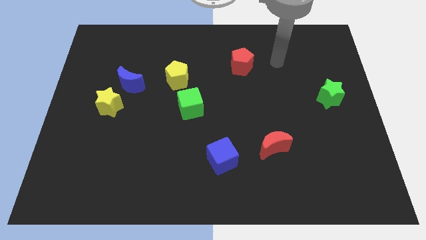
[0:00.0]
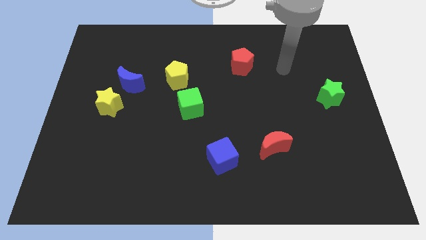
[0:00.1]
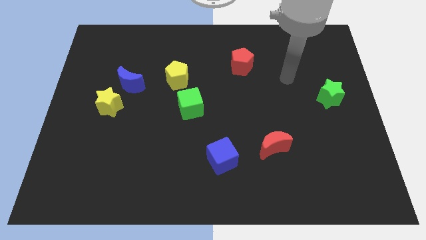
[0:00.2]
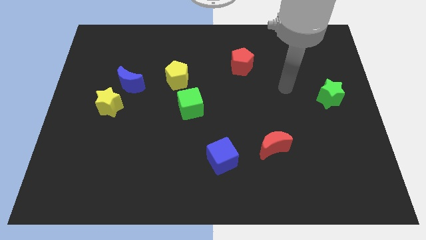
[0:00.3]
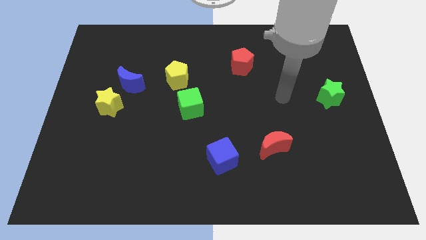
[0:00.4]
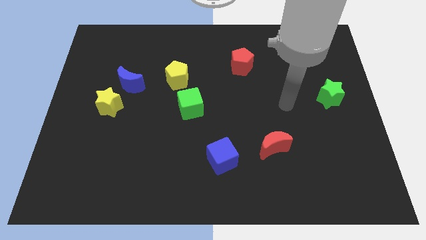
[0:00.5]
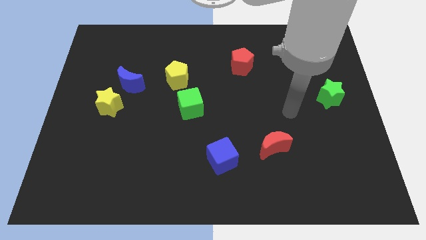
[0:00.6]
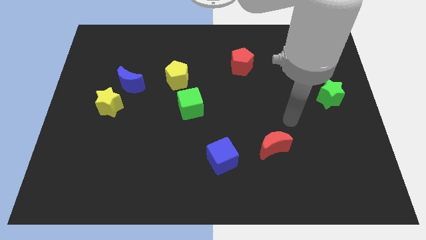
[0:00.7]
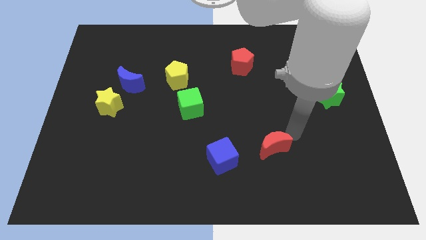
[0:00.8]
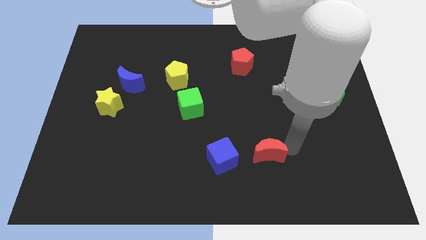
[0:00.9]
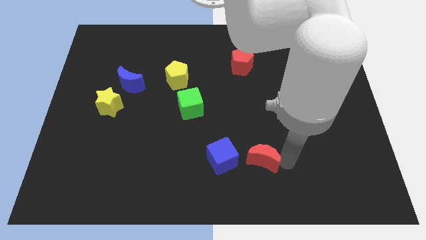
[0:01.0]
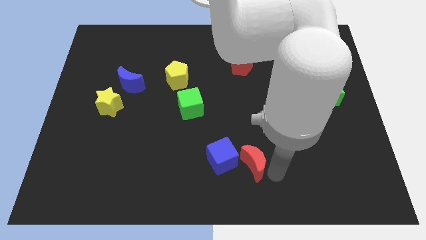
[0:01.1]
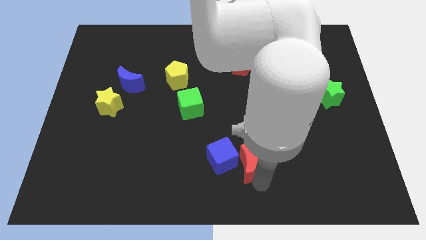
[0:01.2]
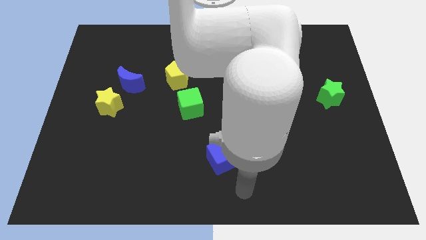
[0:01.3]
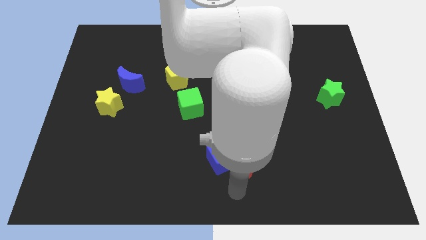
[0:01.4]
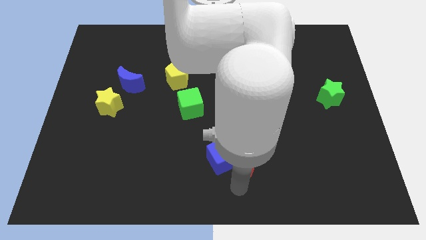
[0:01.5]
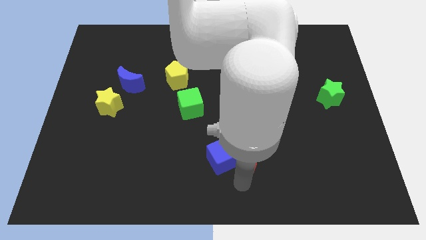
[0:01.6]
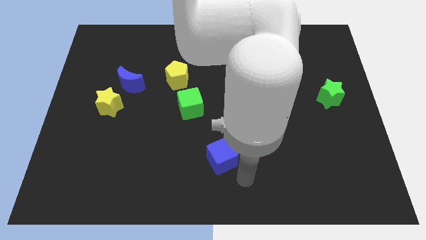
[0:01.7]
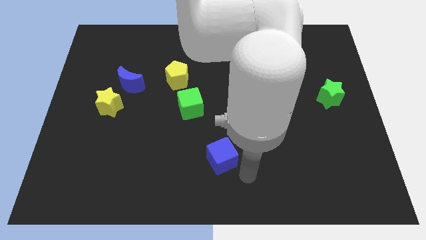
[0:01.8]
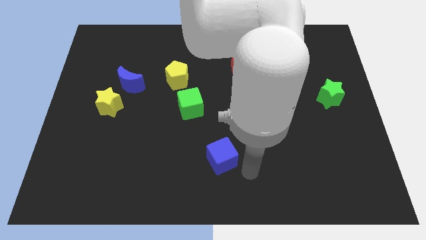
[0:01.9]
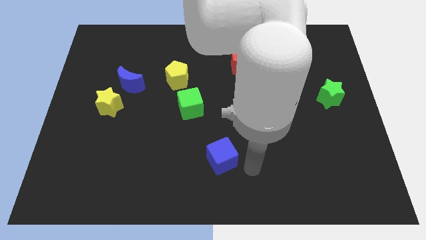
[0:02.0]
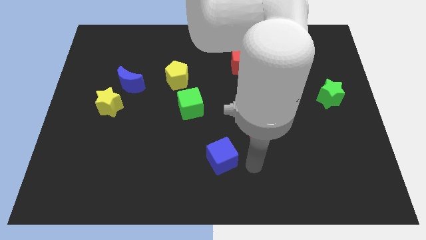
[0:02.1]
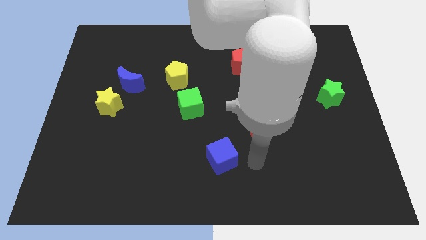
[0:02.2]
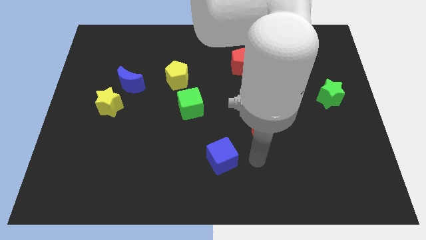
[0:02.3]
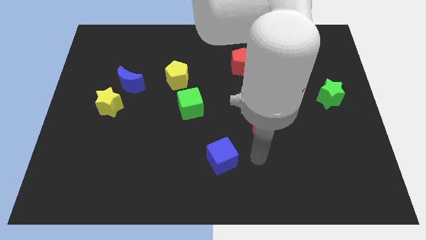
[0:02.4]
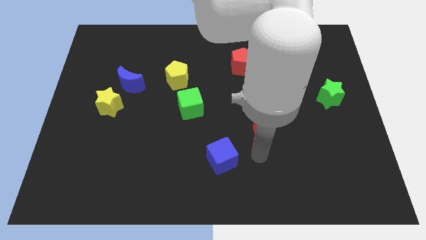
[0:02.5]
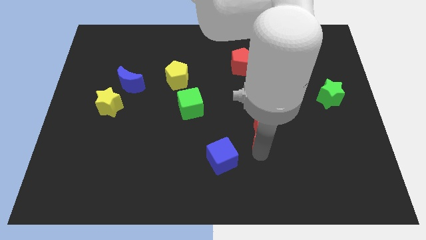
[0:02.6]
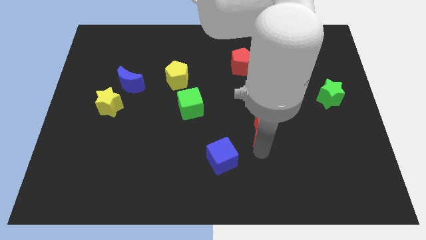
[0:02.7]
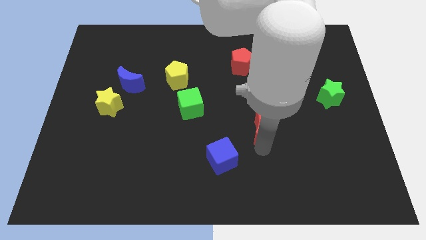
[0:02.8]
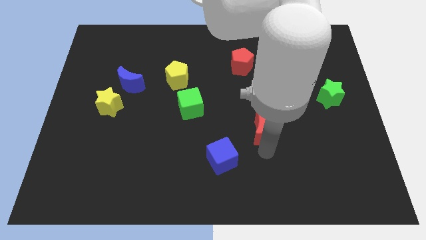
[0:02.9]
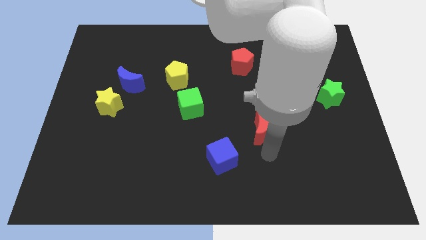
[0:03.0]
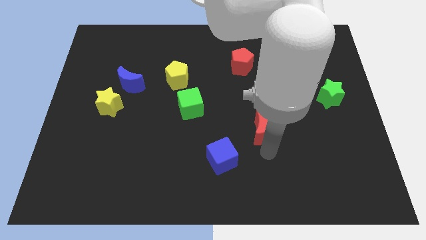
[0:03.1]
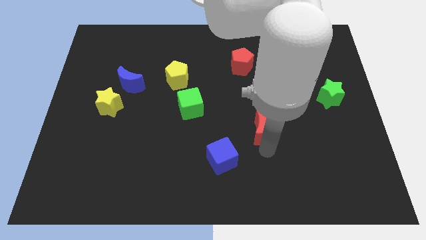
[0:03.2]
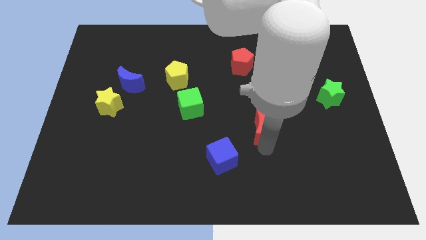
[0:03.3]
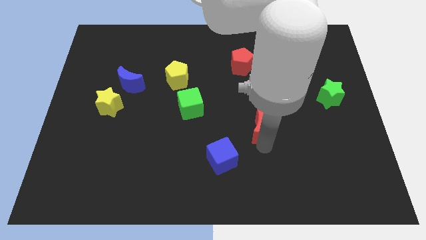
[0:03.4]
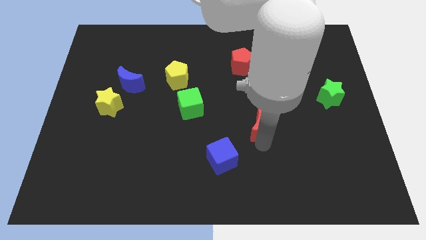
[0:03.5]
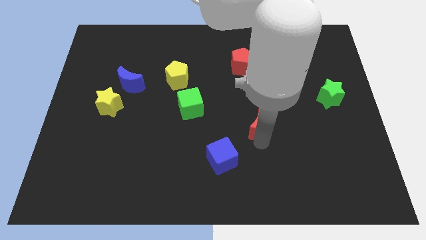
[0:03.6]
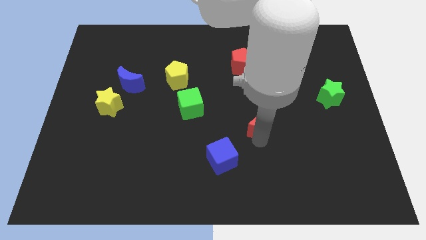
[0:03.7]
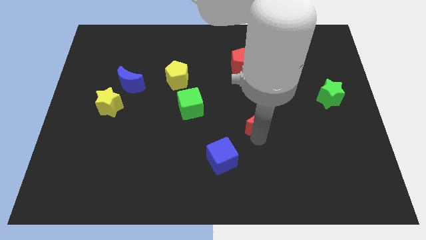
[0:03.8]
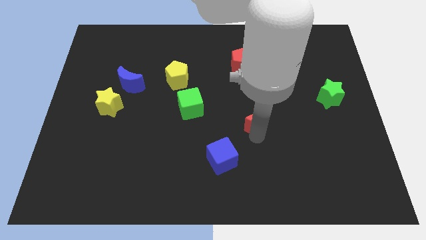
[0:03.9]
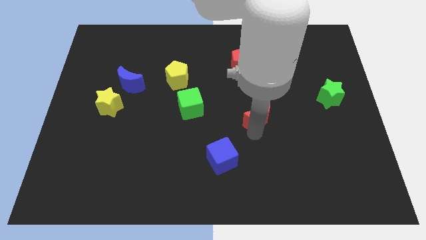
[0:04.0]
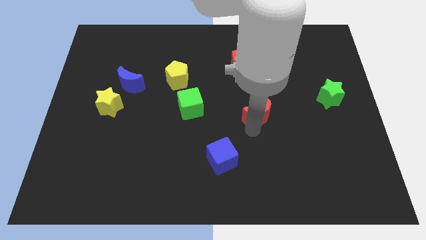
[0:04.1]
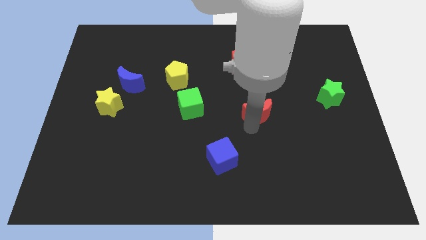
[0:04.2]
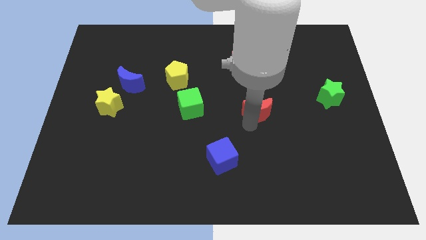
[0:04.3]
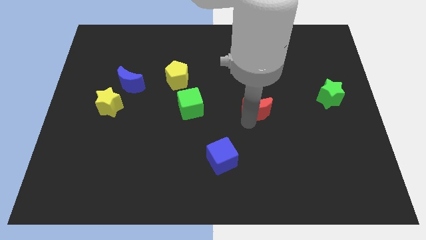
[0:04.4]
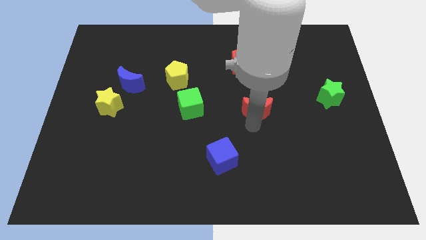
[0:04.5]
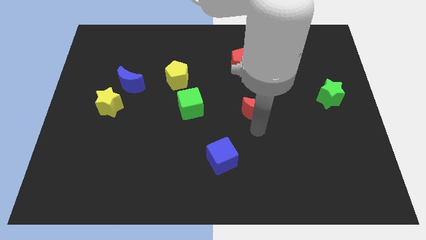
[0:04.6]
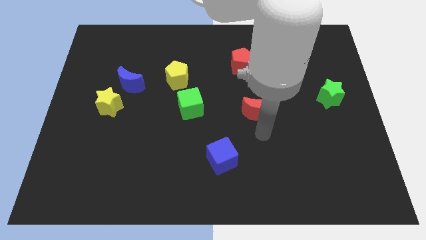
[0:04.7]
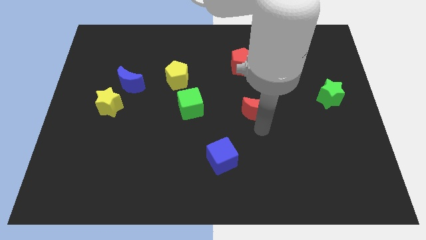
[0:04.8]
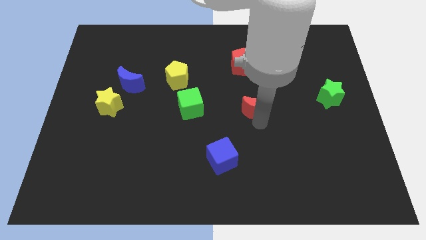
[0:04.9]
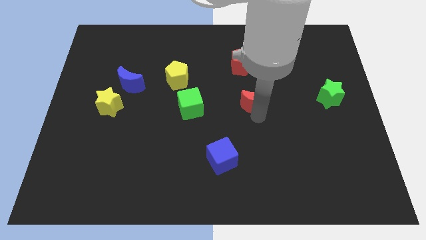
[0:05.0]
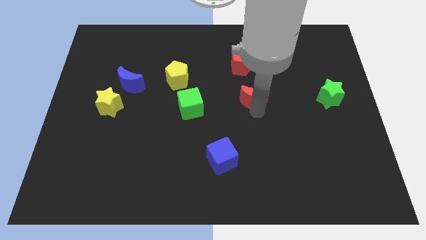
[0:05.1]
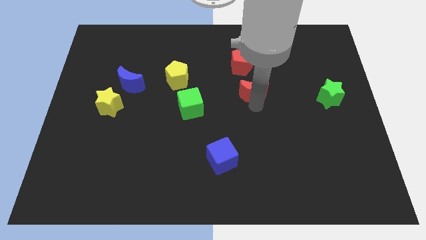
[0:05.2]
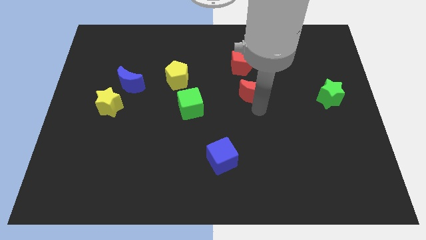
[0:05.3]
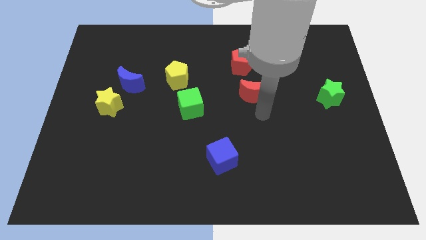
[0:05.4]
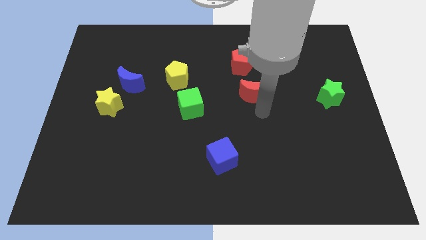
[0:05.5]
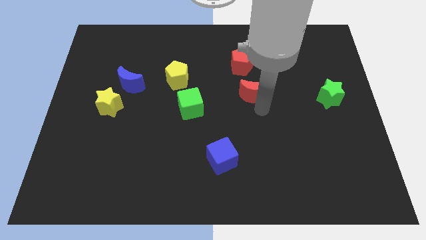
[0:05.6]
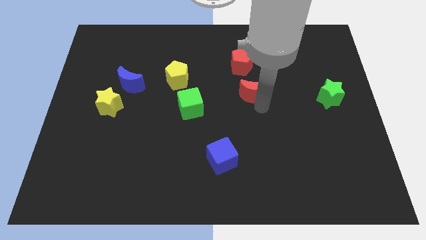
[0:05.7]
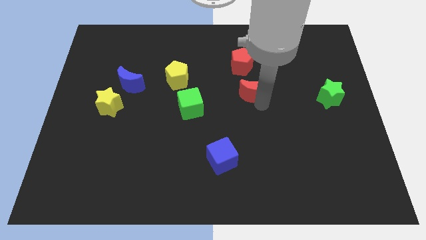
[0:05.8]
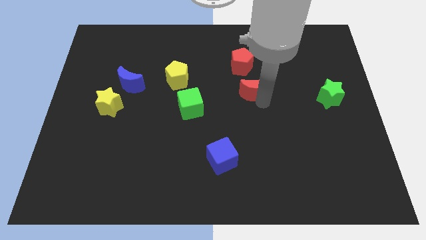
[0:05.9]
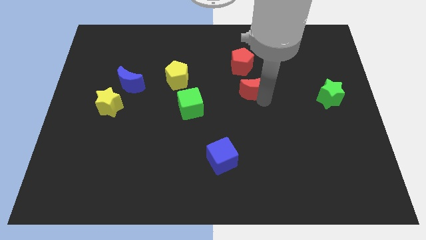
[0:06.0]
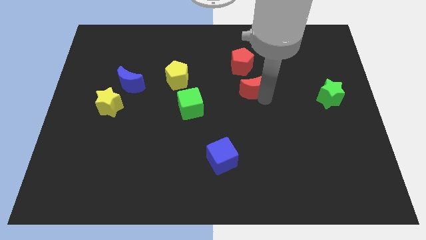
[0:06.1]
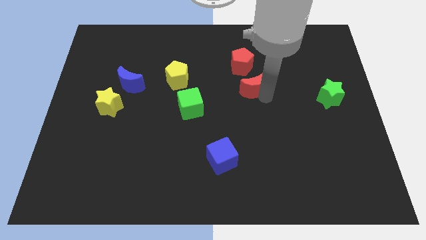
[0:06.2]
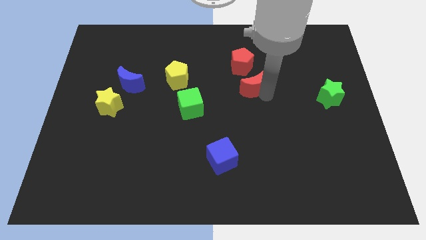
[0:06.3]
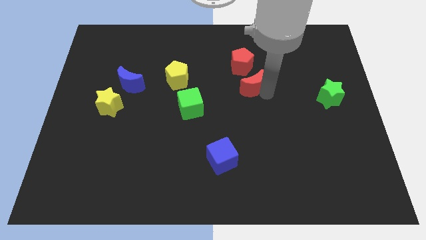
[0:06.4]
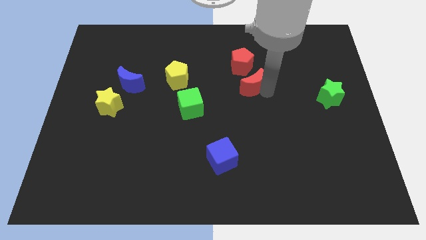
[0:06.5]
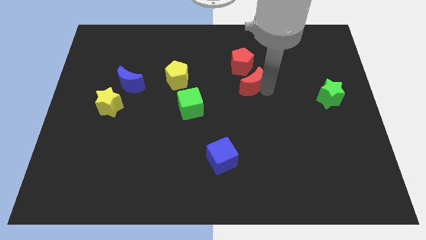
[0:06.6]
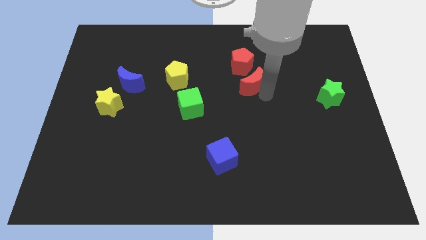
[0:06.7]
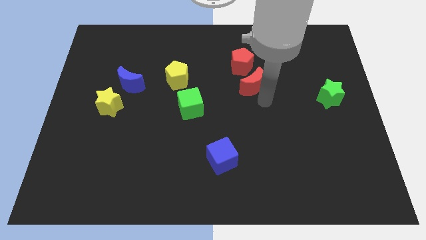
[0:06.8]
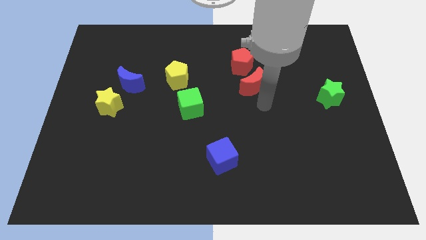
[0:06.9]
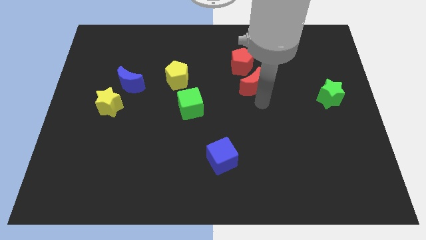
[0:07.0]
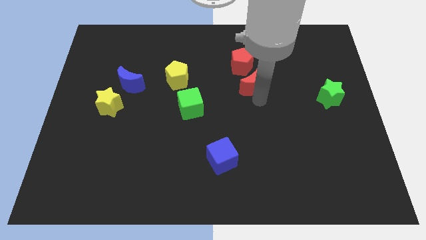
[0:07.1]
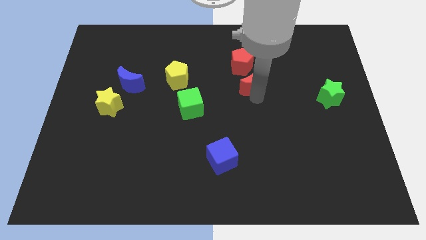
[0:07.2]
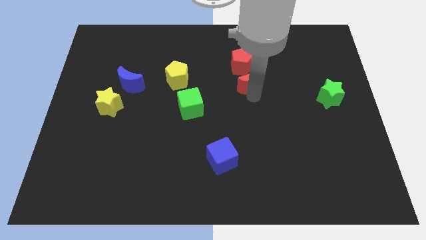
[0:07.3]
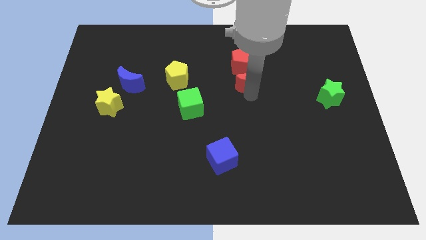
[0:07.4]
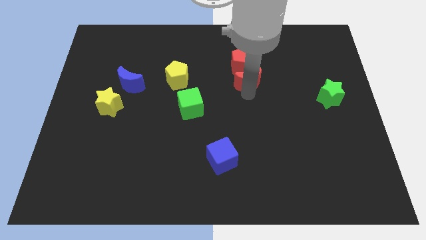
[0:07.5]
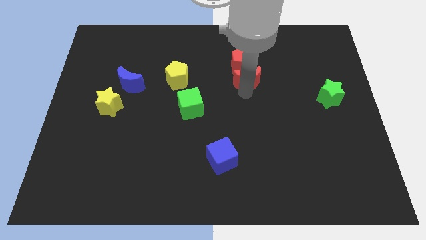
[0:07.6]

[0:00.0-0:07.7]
push the red moon to the red pentagon
